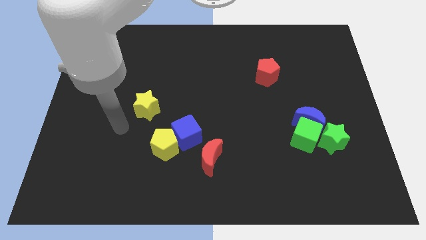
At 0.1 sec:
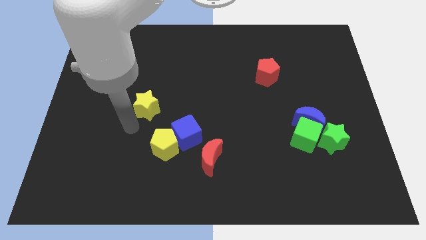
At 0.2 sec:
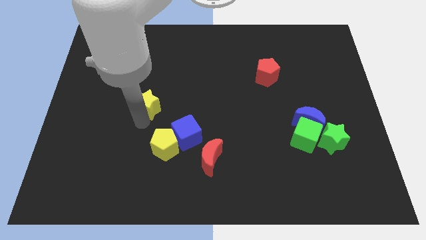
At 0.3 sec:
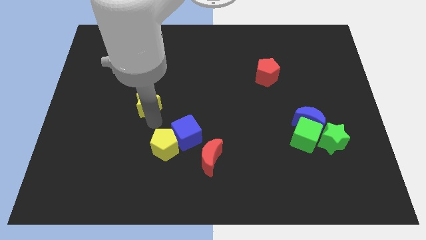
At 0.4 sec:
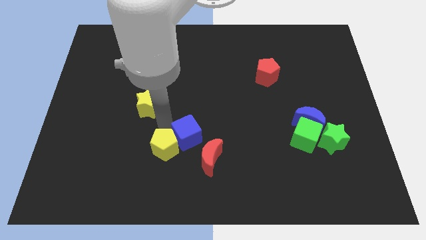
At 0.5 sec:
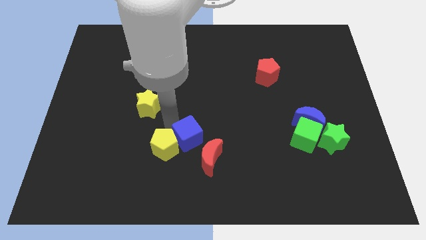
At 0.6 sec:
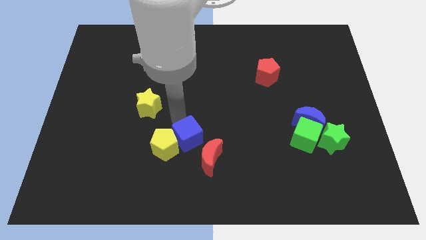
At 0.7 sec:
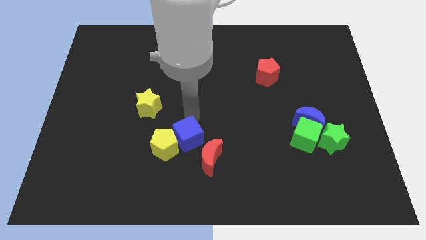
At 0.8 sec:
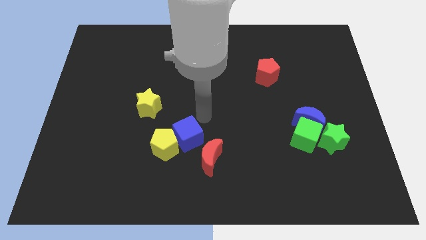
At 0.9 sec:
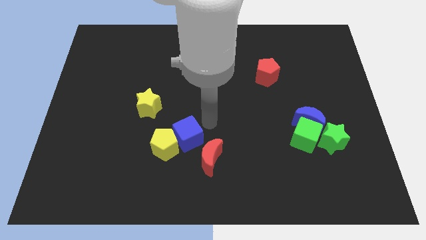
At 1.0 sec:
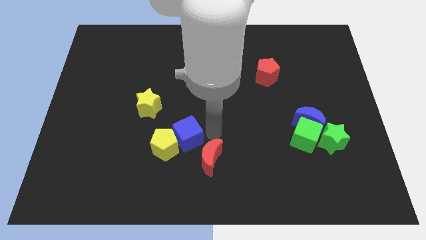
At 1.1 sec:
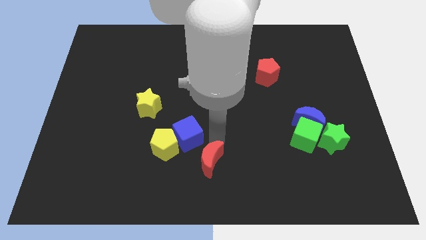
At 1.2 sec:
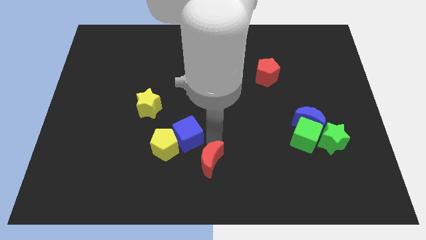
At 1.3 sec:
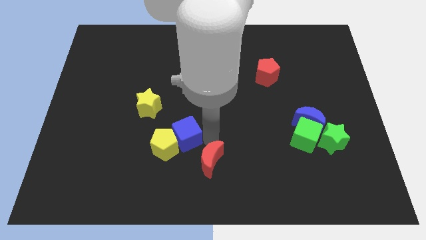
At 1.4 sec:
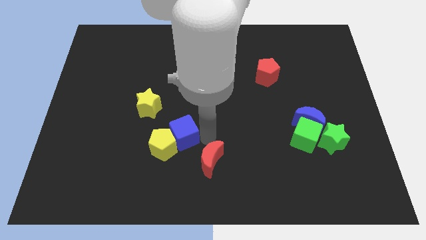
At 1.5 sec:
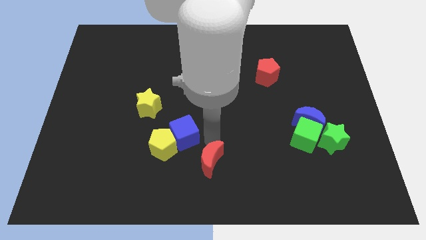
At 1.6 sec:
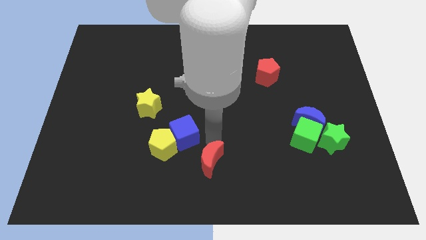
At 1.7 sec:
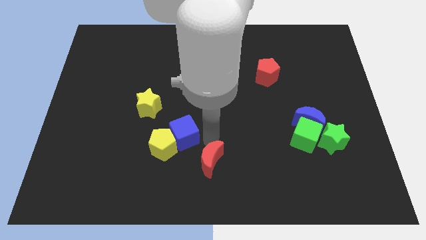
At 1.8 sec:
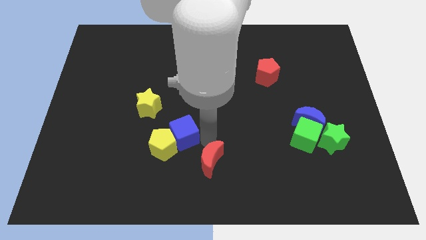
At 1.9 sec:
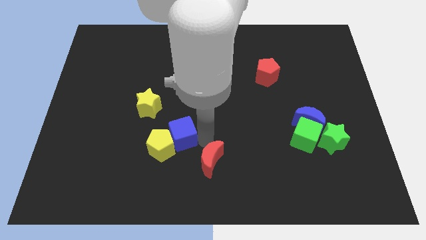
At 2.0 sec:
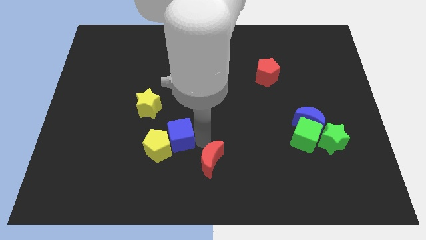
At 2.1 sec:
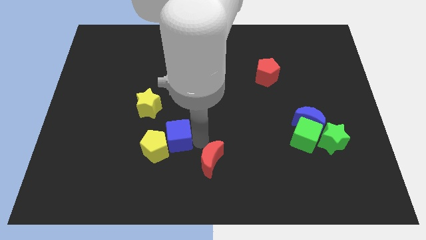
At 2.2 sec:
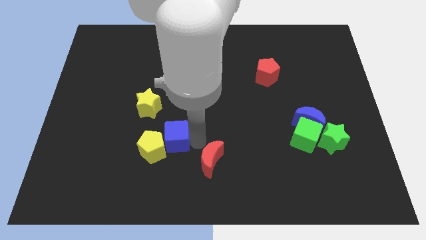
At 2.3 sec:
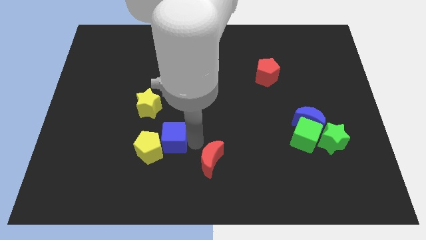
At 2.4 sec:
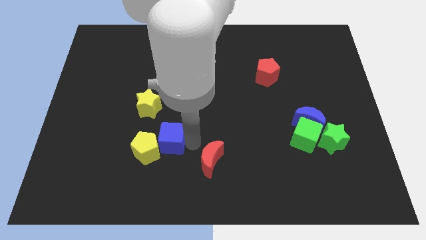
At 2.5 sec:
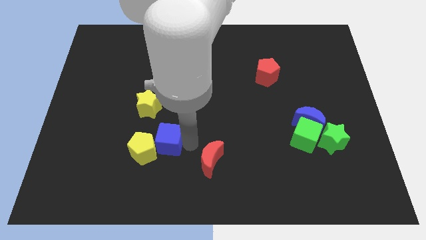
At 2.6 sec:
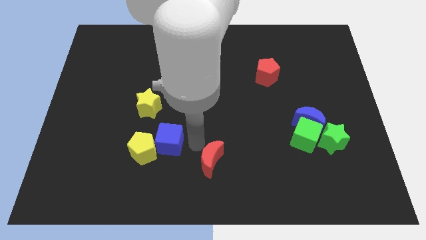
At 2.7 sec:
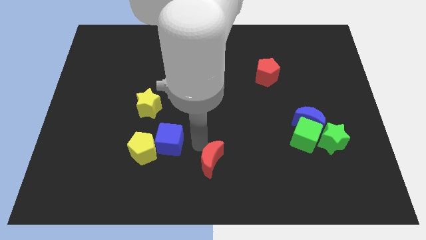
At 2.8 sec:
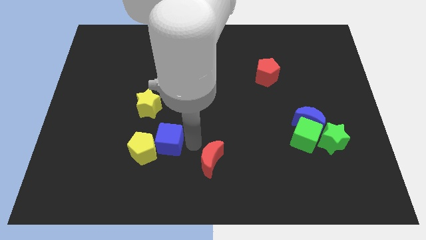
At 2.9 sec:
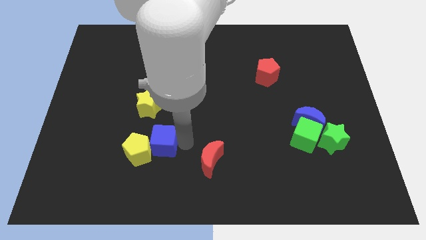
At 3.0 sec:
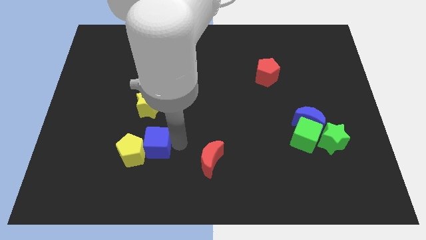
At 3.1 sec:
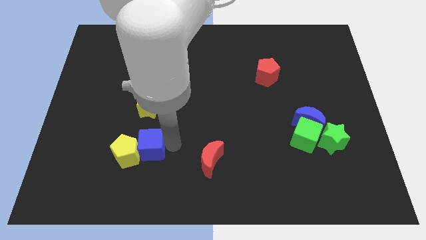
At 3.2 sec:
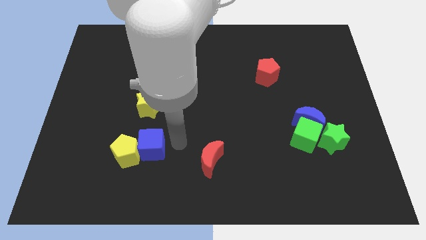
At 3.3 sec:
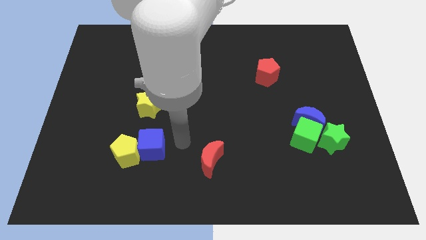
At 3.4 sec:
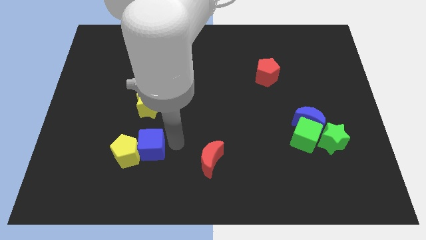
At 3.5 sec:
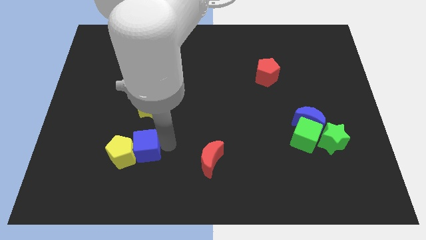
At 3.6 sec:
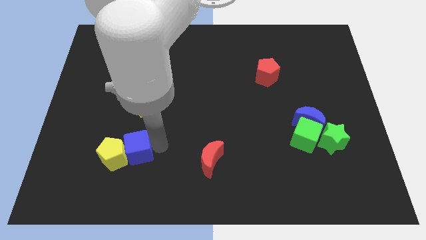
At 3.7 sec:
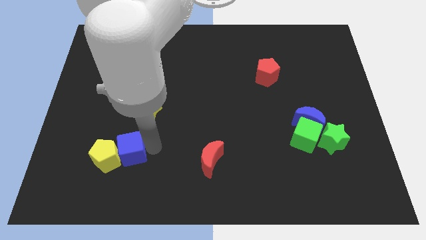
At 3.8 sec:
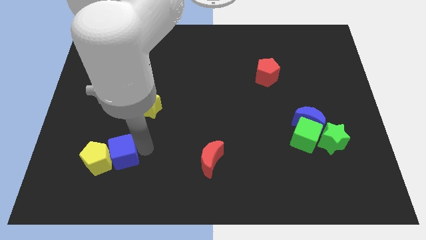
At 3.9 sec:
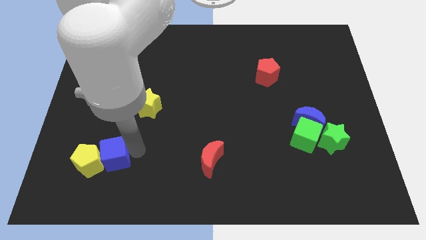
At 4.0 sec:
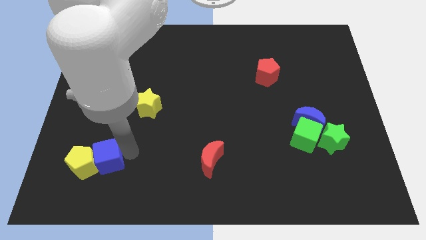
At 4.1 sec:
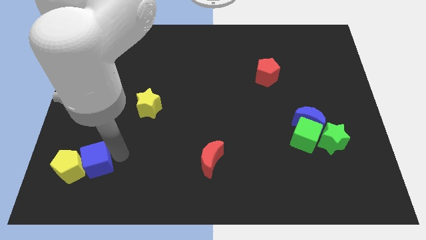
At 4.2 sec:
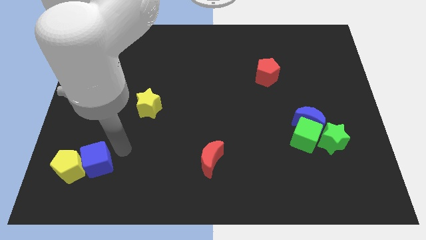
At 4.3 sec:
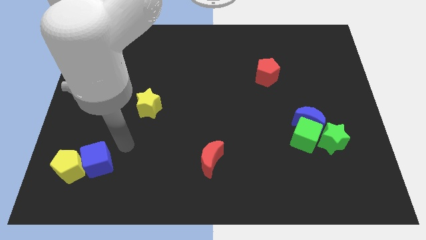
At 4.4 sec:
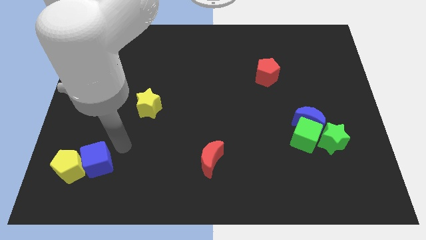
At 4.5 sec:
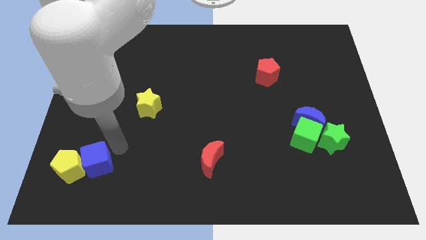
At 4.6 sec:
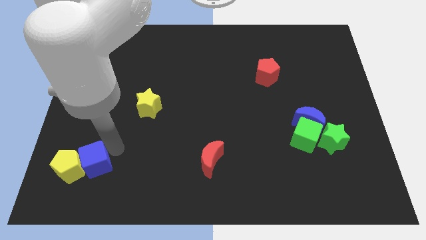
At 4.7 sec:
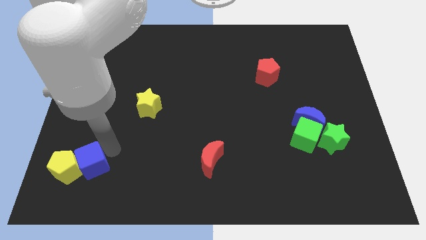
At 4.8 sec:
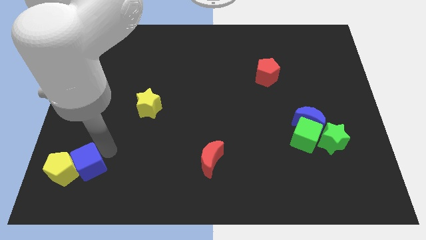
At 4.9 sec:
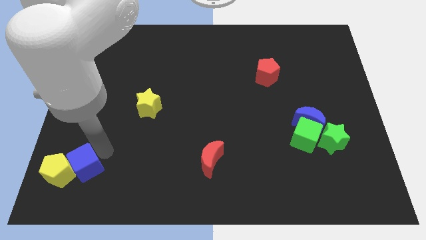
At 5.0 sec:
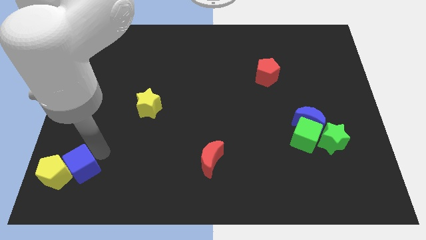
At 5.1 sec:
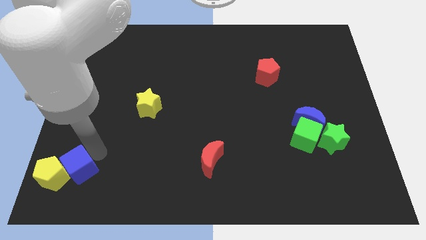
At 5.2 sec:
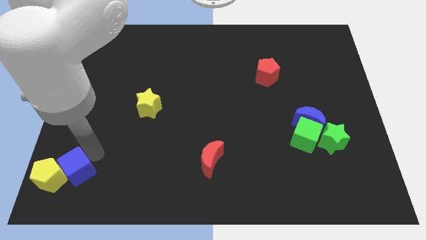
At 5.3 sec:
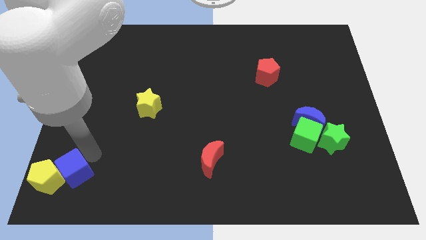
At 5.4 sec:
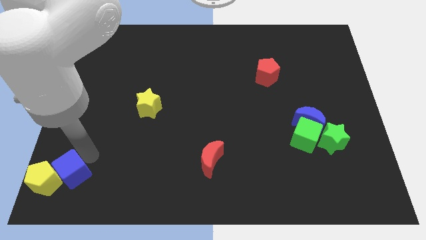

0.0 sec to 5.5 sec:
move the blue cube to the lower left corner

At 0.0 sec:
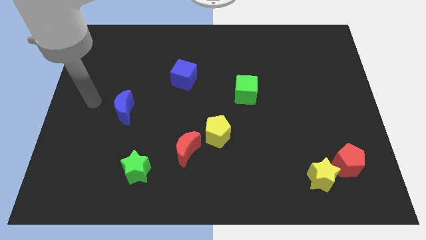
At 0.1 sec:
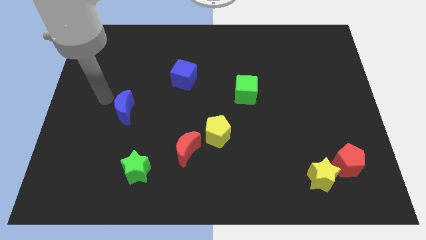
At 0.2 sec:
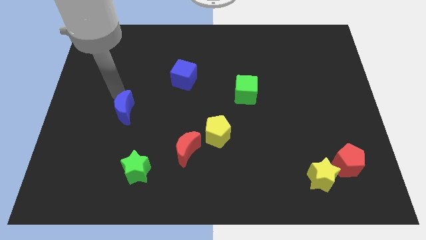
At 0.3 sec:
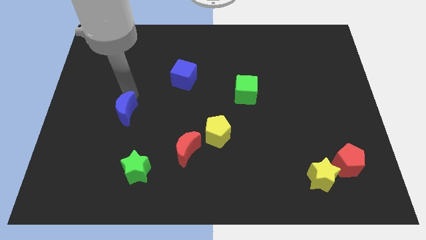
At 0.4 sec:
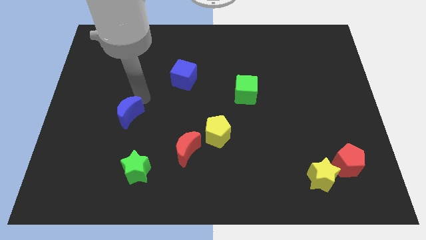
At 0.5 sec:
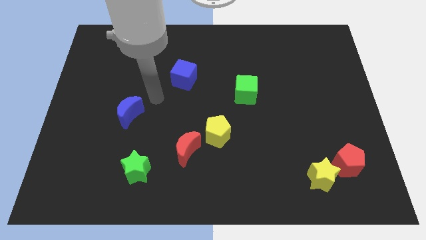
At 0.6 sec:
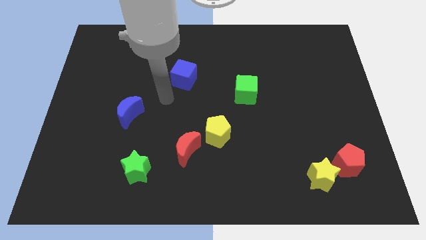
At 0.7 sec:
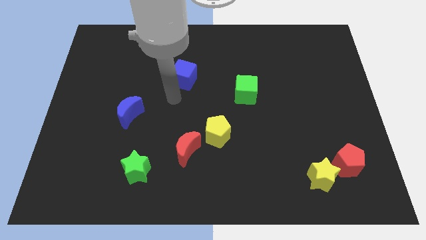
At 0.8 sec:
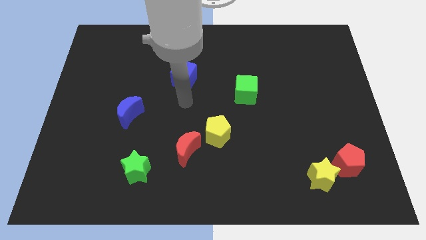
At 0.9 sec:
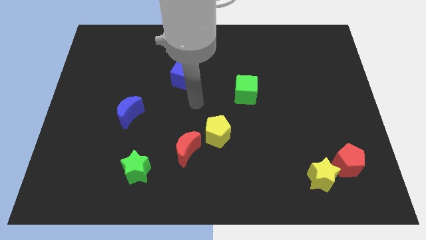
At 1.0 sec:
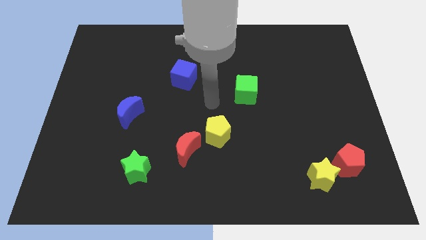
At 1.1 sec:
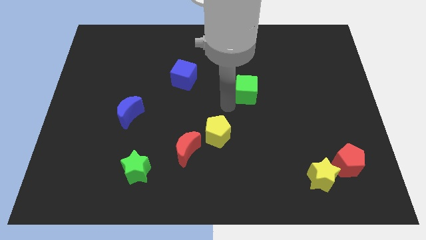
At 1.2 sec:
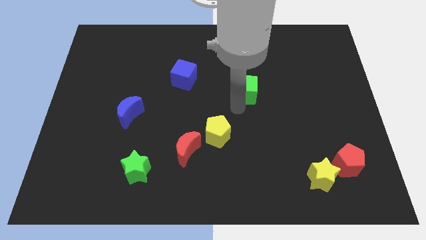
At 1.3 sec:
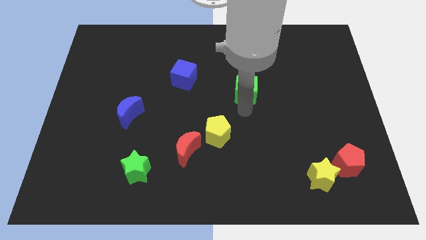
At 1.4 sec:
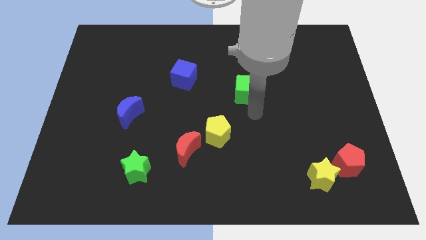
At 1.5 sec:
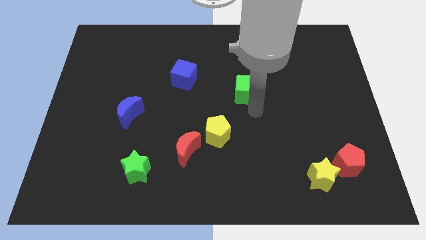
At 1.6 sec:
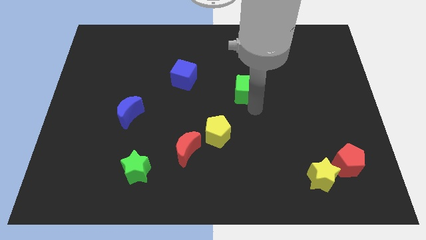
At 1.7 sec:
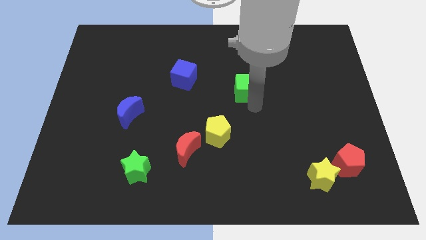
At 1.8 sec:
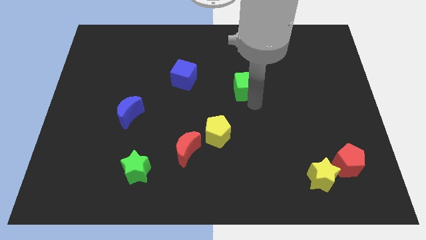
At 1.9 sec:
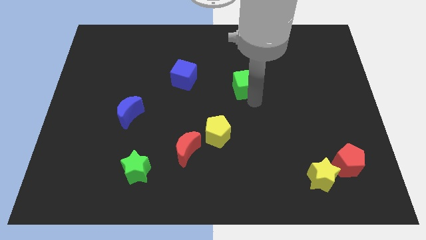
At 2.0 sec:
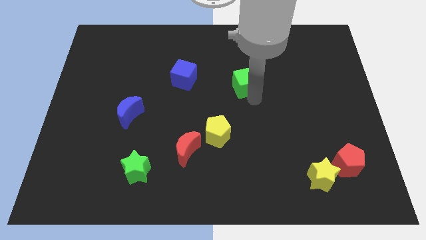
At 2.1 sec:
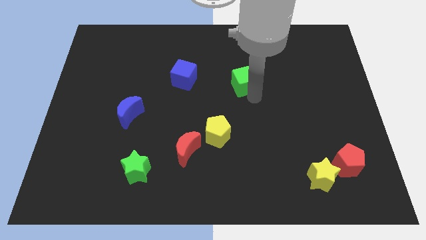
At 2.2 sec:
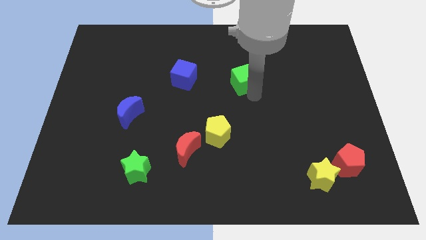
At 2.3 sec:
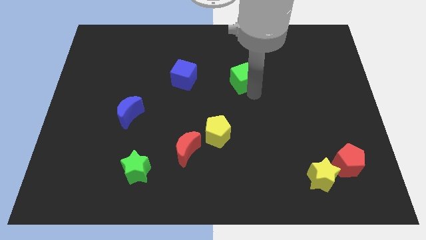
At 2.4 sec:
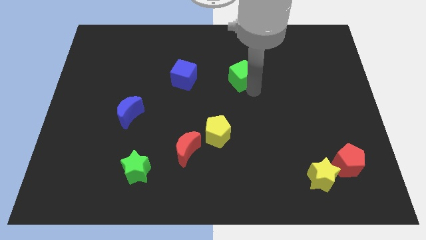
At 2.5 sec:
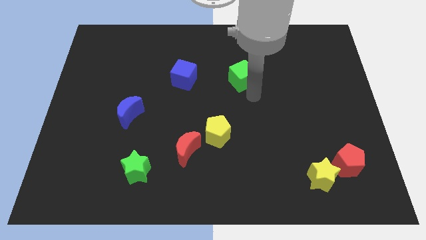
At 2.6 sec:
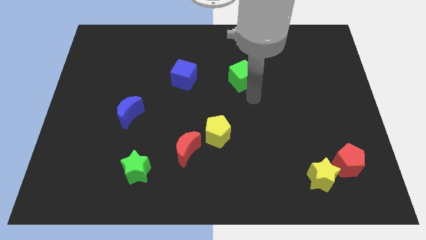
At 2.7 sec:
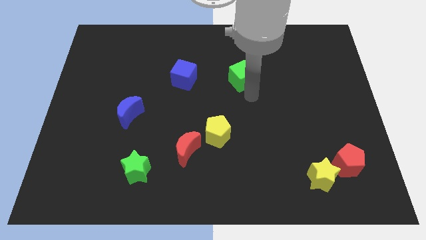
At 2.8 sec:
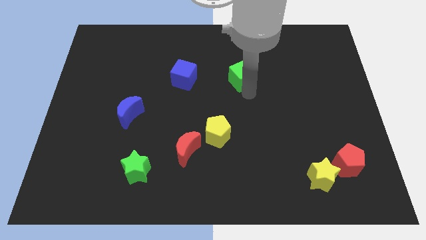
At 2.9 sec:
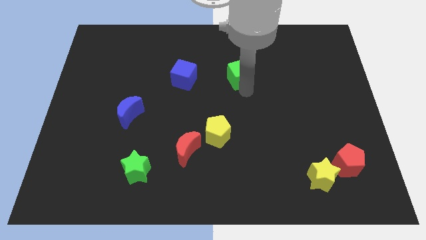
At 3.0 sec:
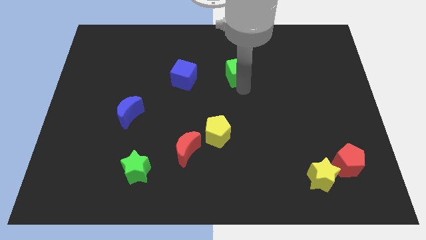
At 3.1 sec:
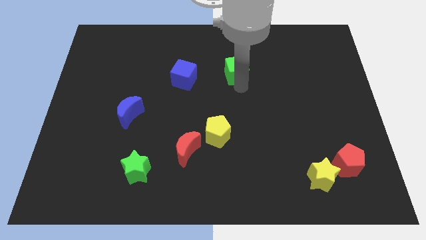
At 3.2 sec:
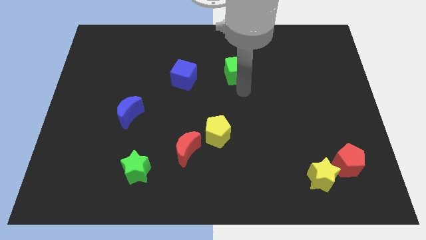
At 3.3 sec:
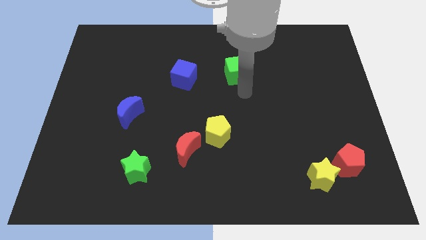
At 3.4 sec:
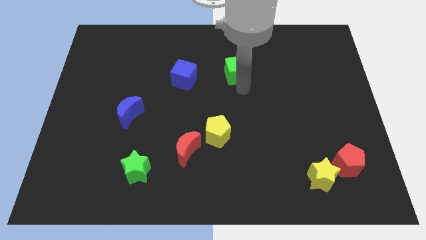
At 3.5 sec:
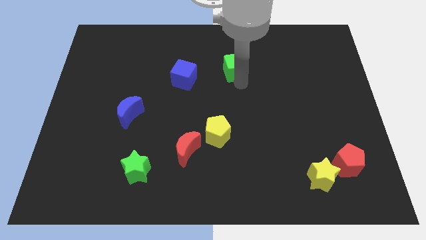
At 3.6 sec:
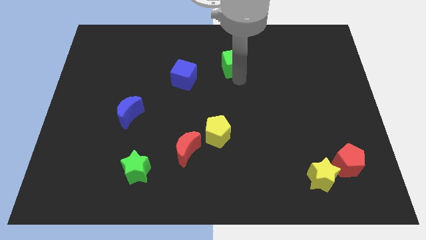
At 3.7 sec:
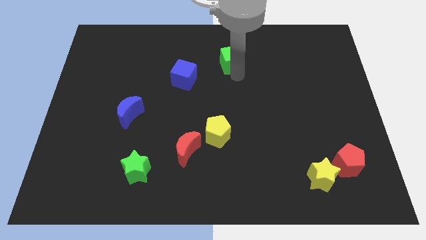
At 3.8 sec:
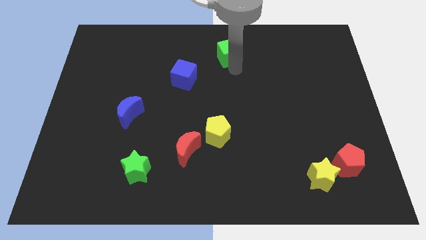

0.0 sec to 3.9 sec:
move the green cube to the top side
